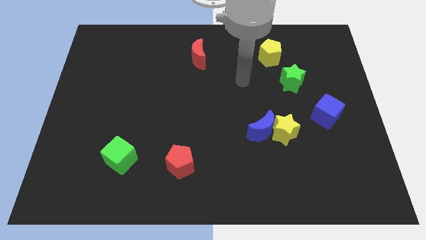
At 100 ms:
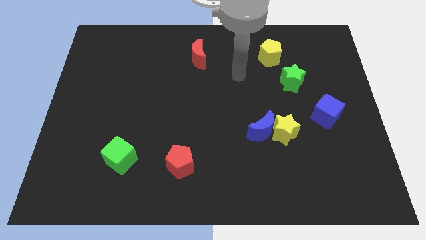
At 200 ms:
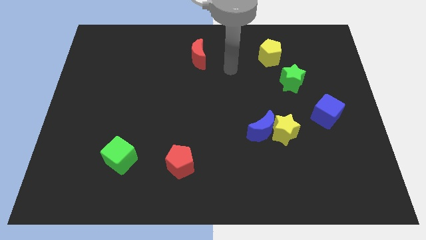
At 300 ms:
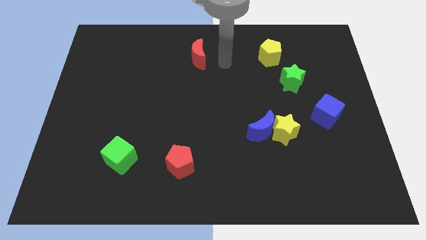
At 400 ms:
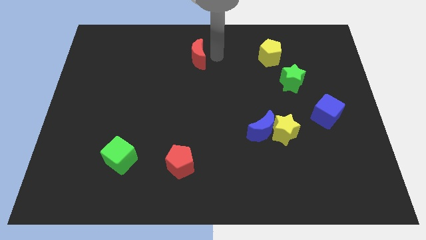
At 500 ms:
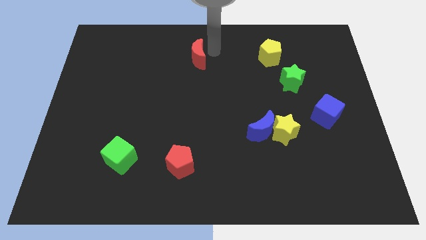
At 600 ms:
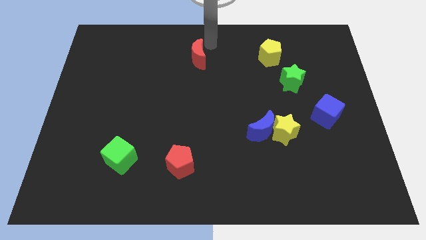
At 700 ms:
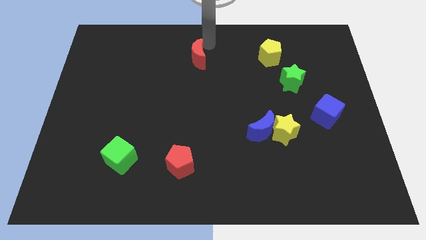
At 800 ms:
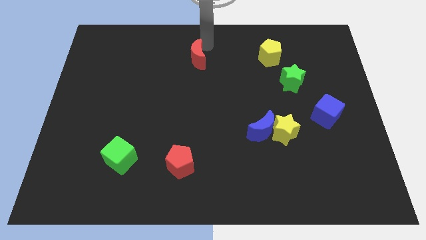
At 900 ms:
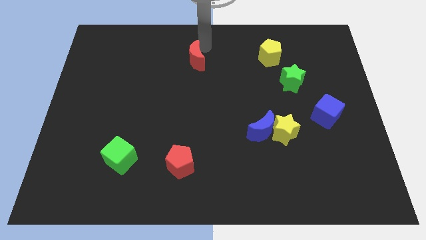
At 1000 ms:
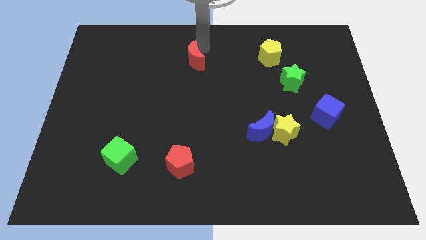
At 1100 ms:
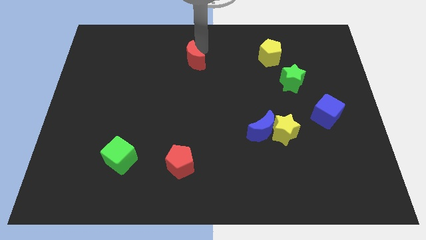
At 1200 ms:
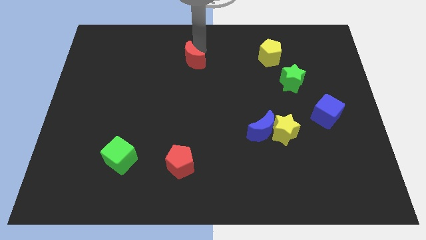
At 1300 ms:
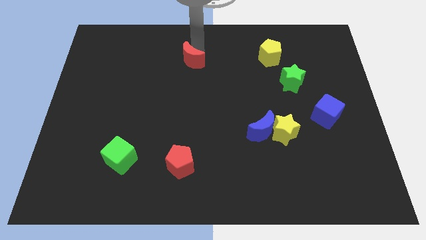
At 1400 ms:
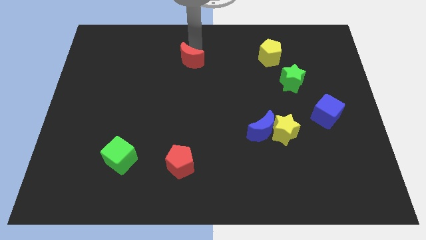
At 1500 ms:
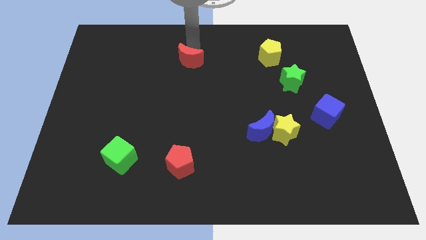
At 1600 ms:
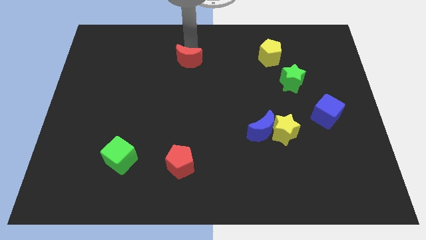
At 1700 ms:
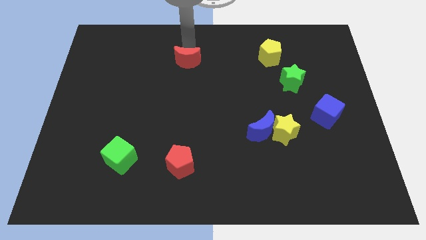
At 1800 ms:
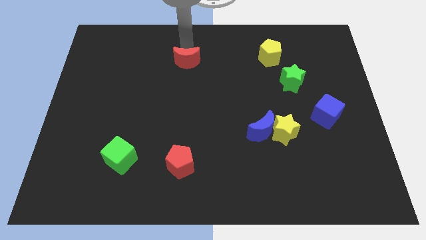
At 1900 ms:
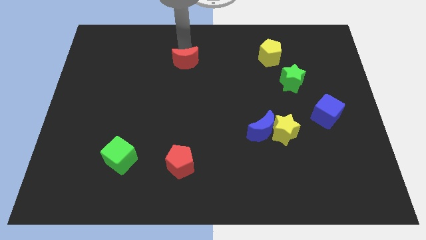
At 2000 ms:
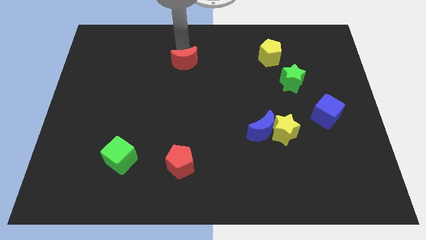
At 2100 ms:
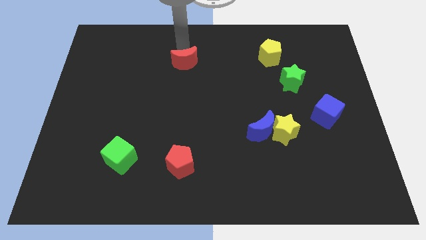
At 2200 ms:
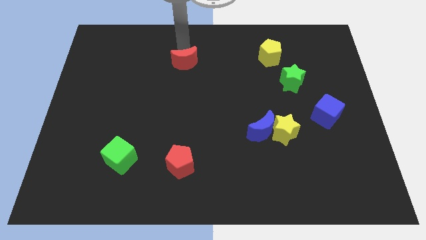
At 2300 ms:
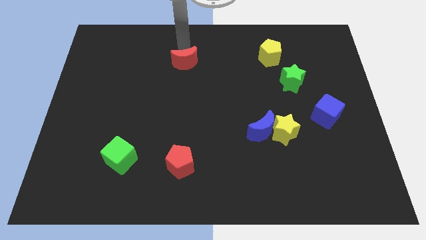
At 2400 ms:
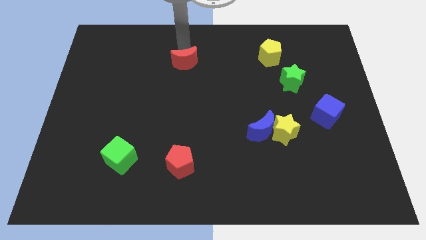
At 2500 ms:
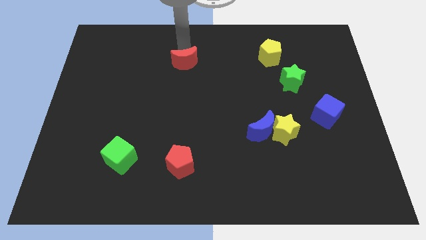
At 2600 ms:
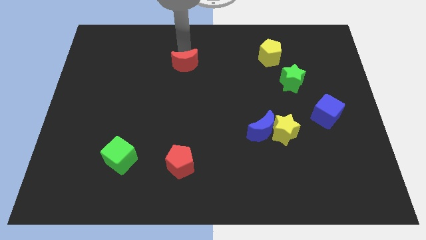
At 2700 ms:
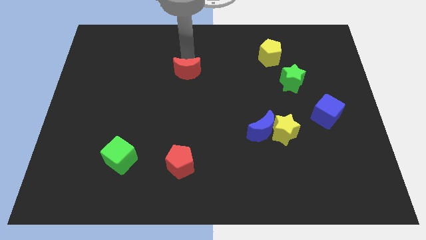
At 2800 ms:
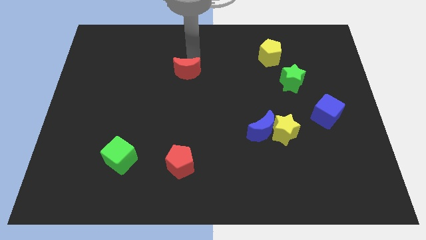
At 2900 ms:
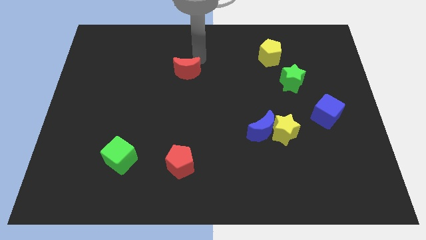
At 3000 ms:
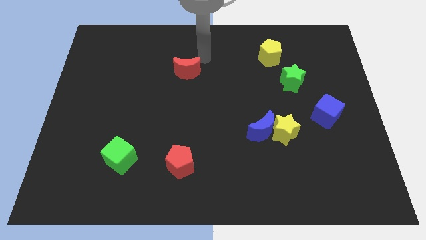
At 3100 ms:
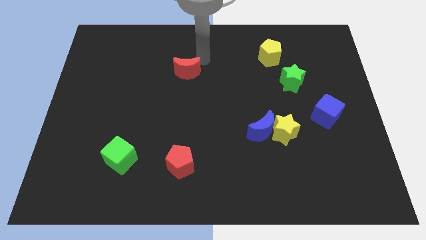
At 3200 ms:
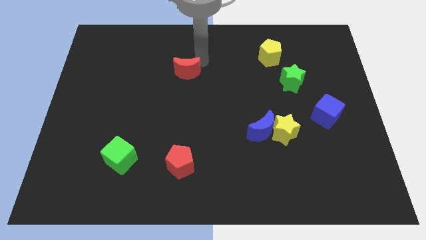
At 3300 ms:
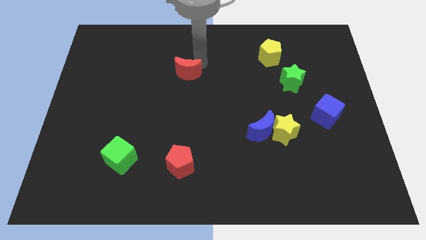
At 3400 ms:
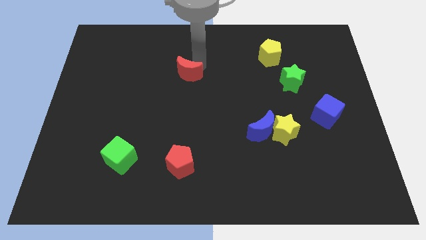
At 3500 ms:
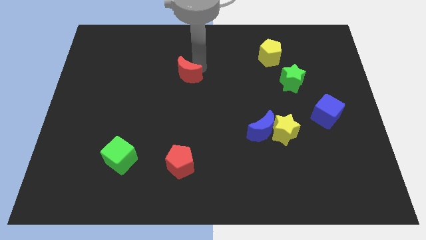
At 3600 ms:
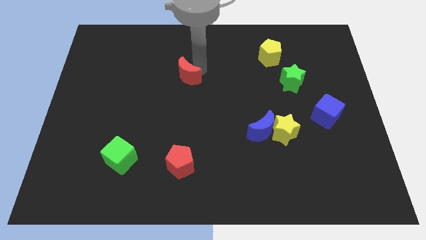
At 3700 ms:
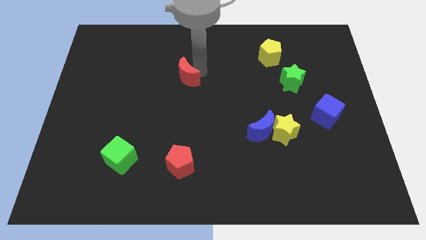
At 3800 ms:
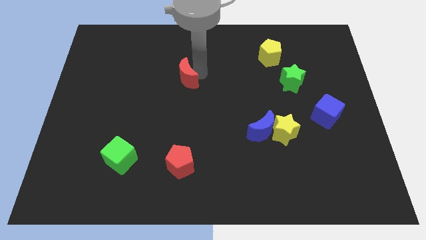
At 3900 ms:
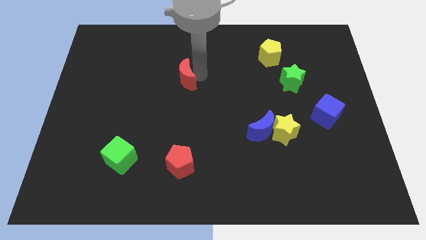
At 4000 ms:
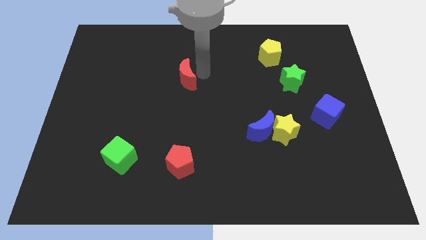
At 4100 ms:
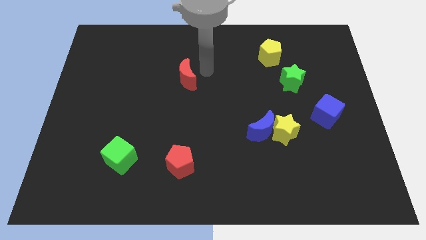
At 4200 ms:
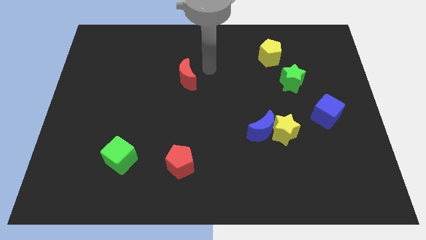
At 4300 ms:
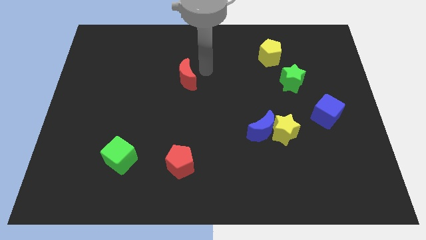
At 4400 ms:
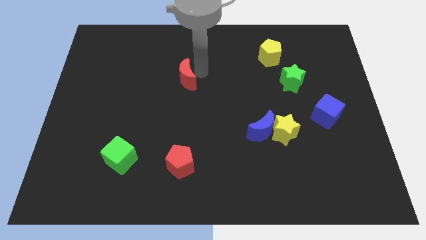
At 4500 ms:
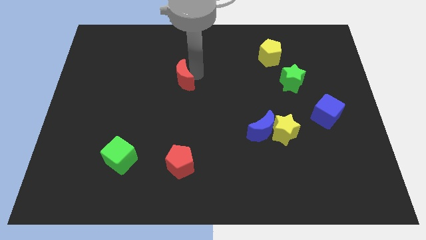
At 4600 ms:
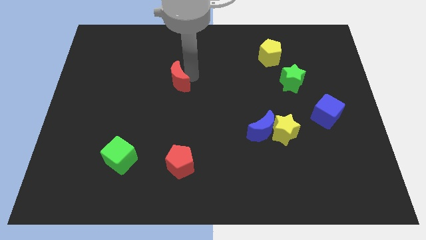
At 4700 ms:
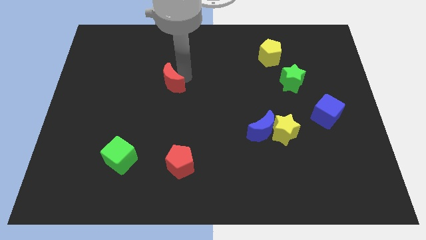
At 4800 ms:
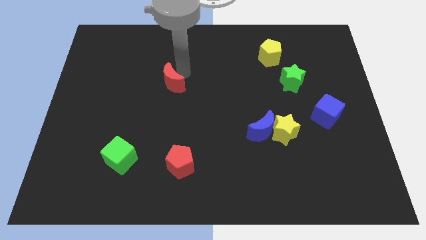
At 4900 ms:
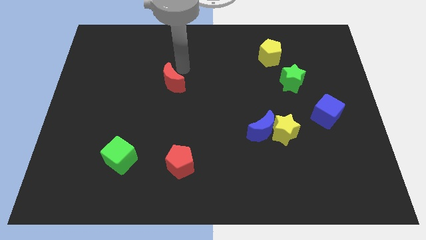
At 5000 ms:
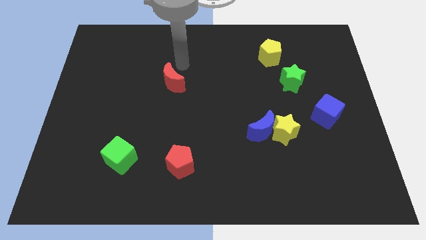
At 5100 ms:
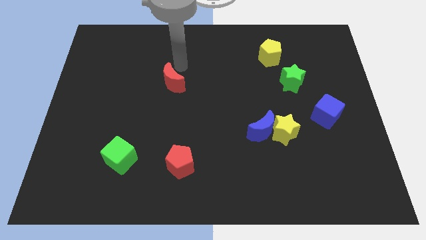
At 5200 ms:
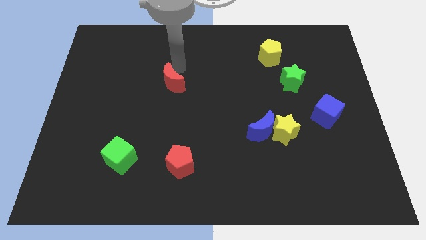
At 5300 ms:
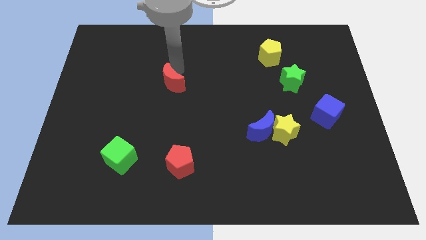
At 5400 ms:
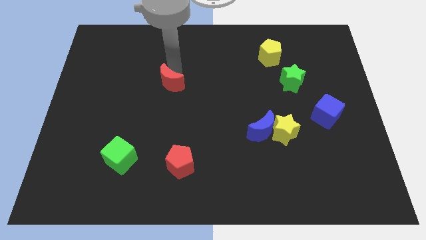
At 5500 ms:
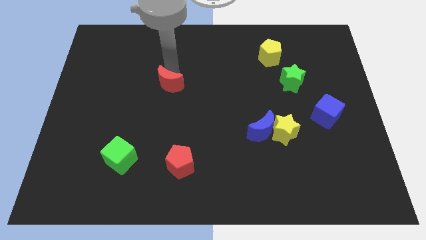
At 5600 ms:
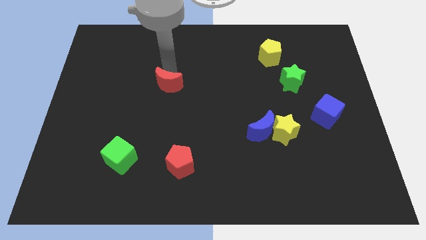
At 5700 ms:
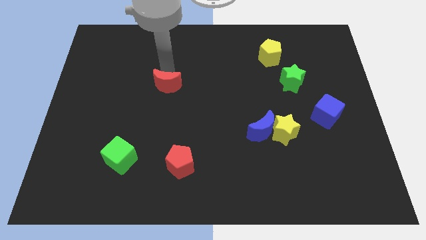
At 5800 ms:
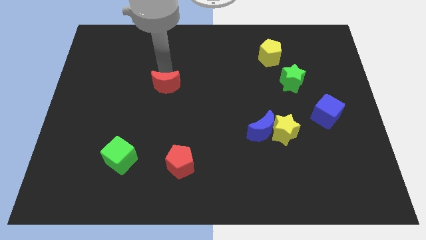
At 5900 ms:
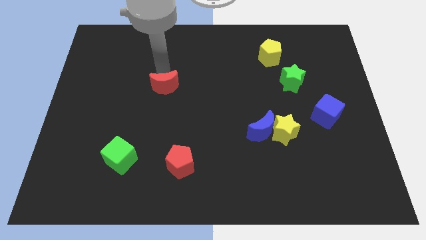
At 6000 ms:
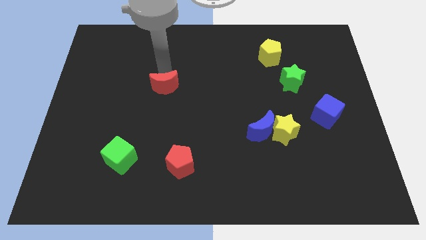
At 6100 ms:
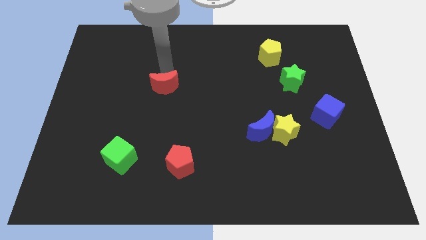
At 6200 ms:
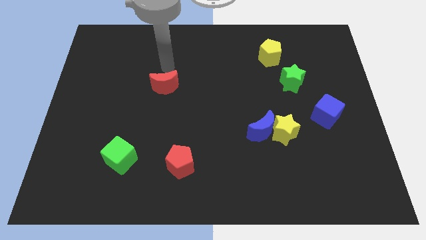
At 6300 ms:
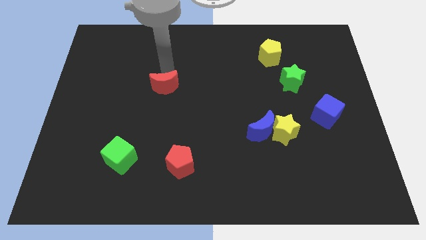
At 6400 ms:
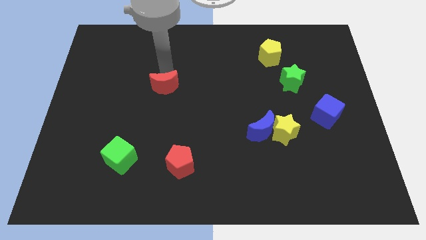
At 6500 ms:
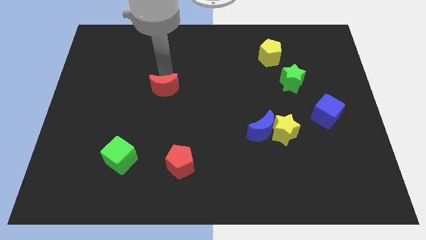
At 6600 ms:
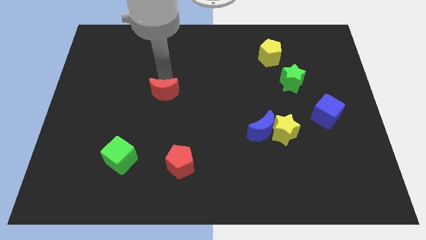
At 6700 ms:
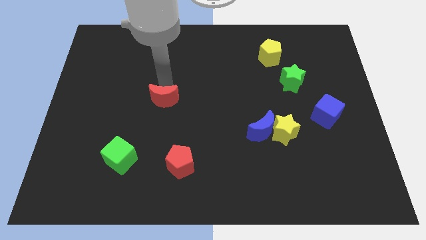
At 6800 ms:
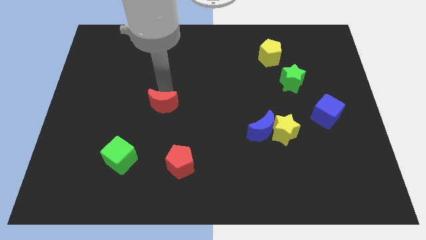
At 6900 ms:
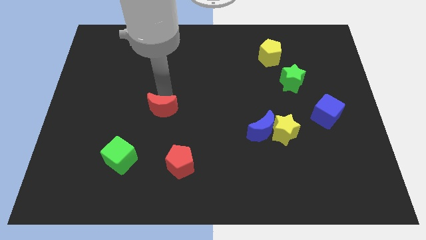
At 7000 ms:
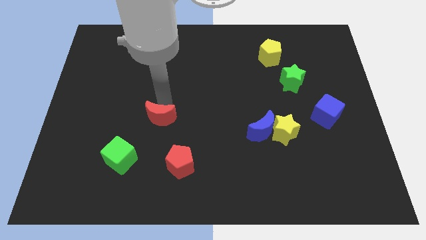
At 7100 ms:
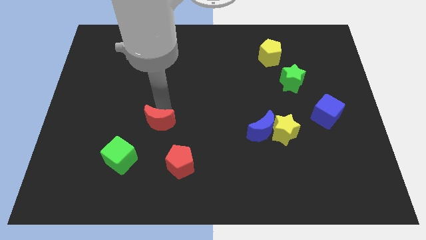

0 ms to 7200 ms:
put the red moon diagonally up and to the right of the green cube

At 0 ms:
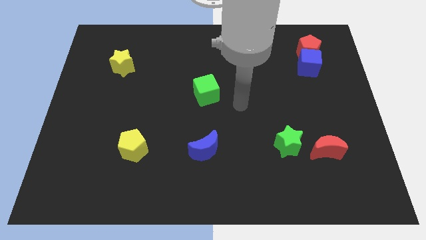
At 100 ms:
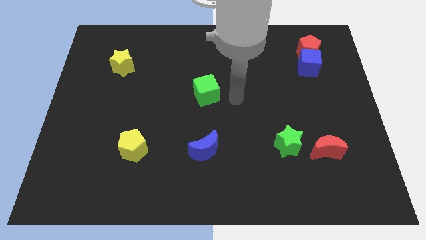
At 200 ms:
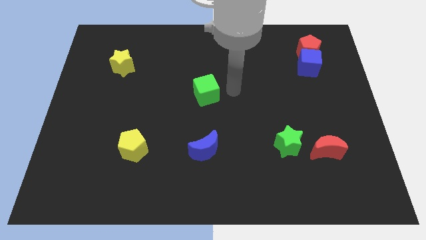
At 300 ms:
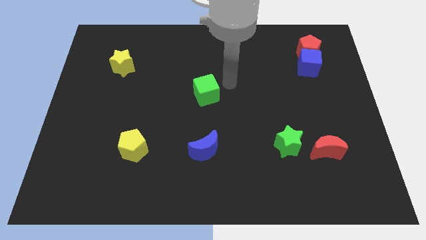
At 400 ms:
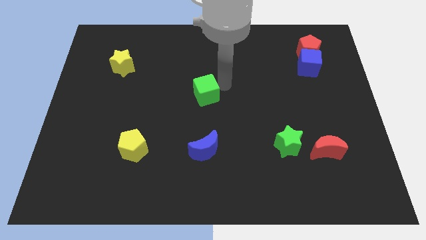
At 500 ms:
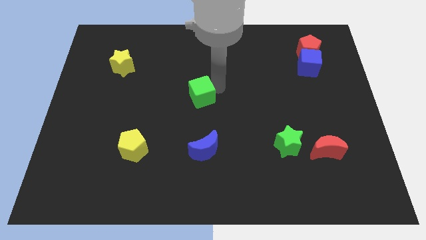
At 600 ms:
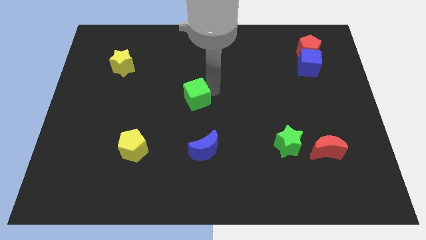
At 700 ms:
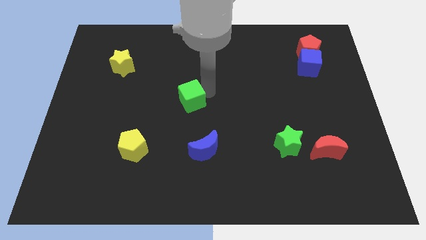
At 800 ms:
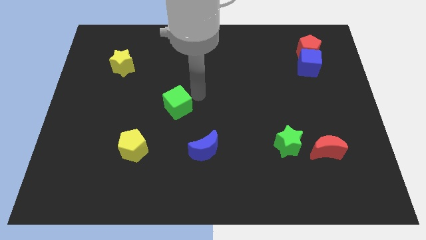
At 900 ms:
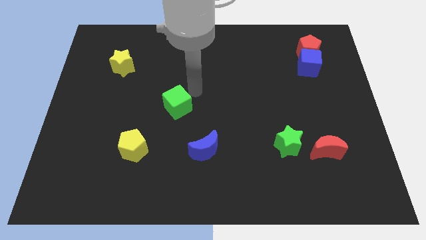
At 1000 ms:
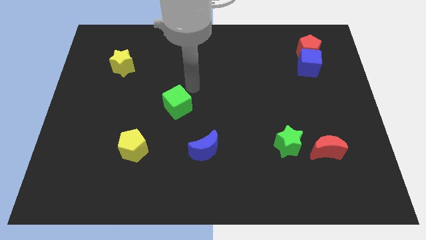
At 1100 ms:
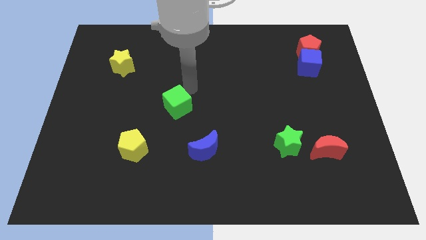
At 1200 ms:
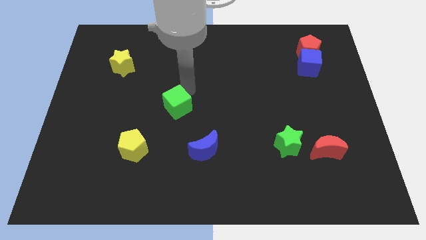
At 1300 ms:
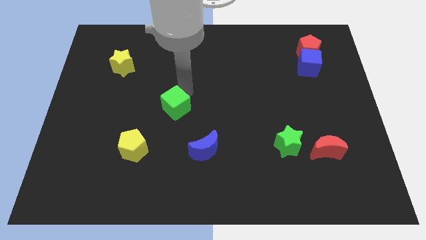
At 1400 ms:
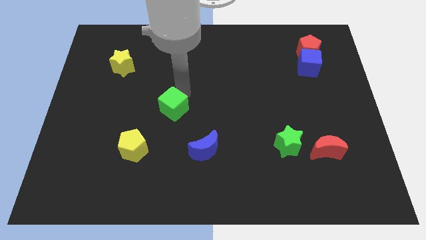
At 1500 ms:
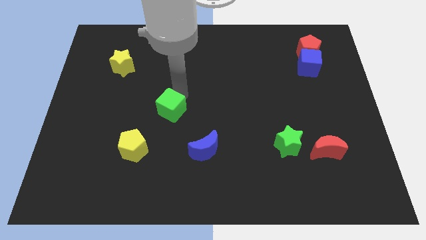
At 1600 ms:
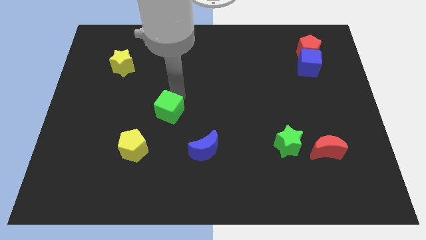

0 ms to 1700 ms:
move the green cube to the top right side of the yellow pentagon
